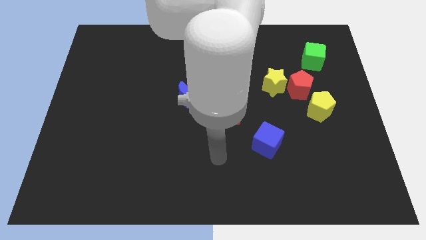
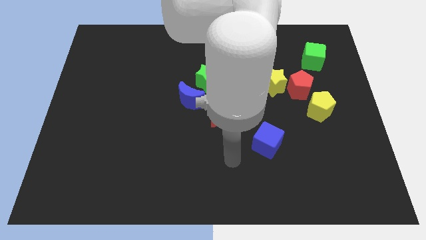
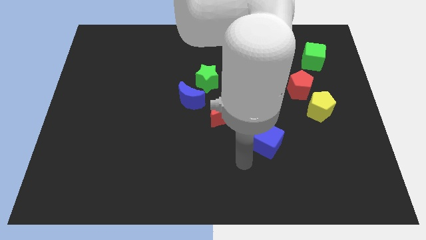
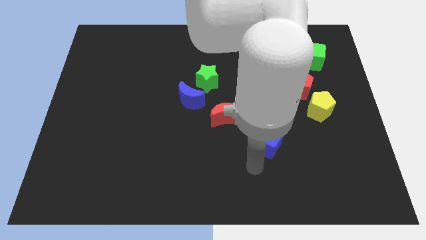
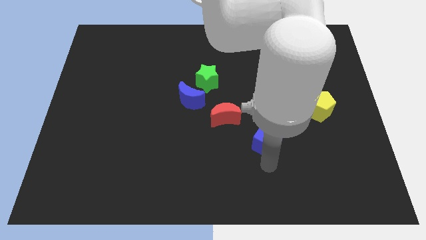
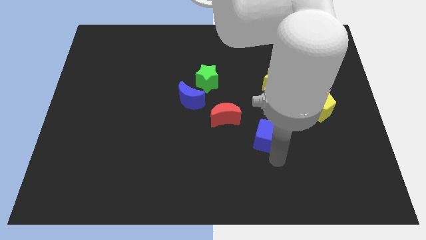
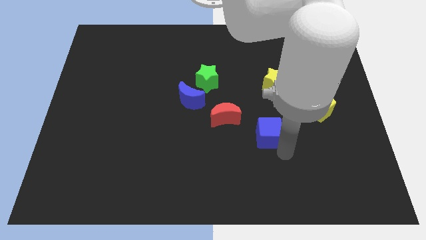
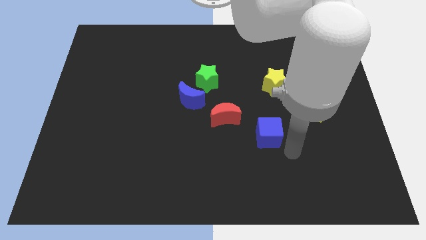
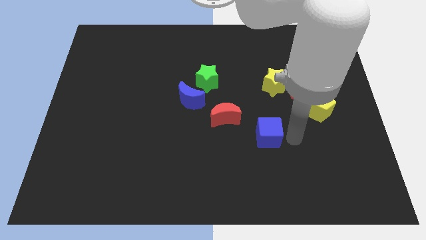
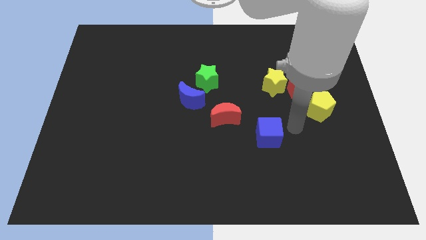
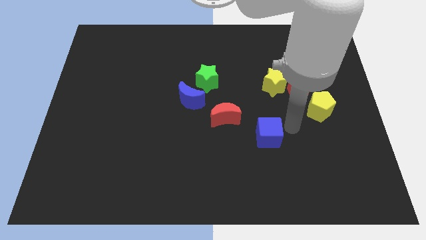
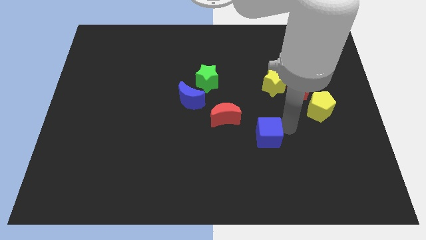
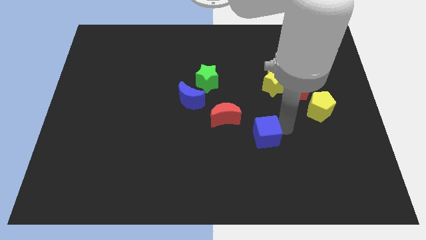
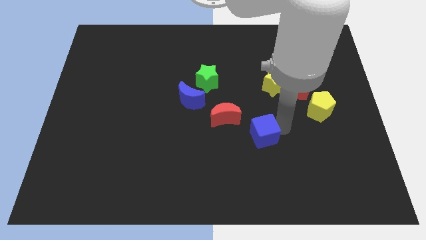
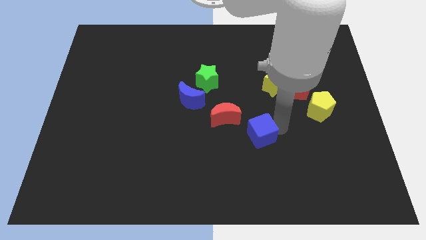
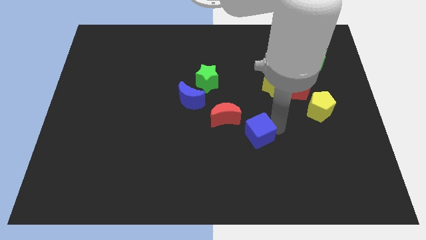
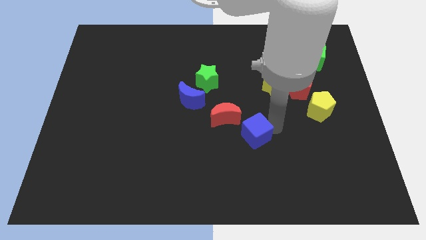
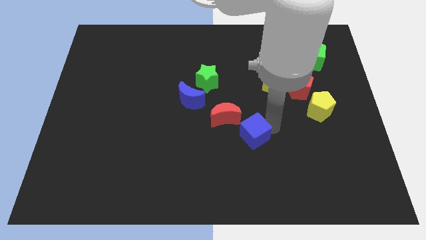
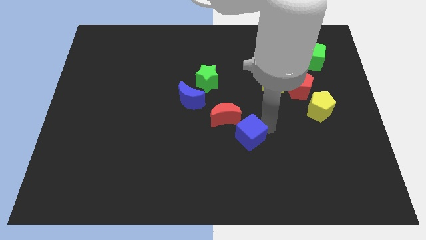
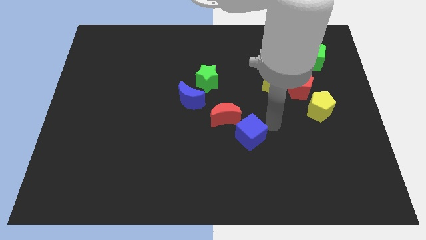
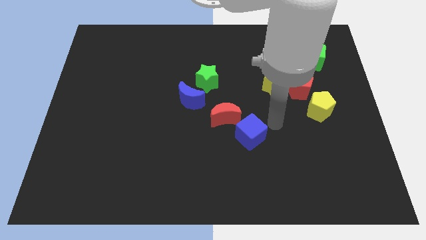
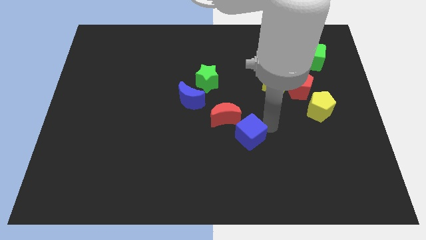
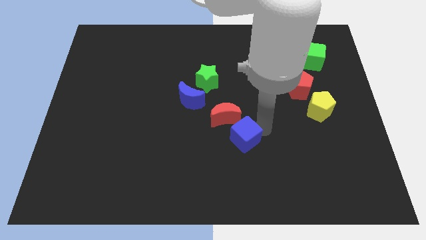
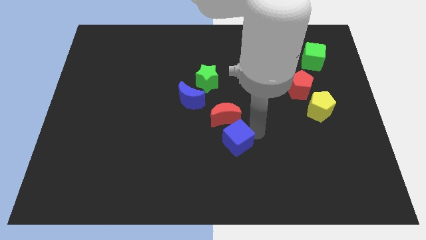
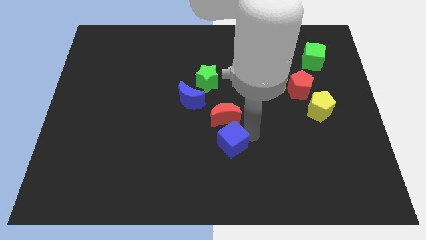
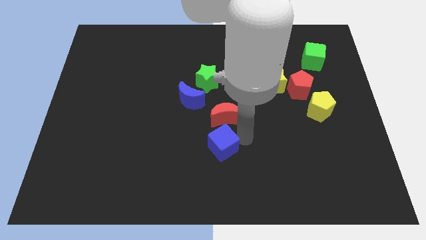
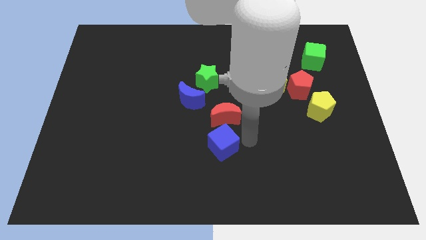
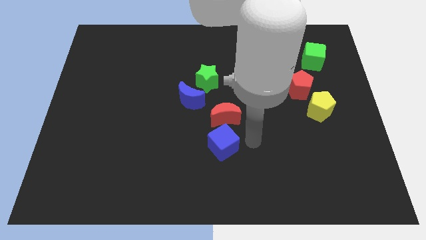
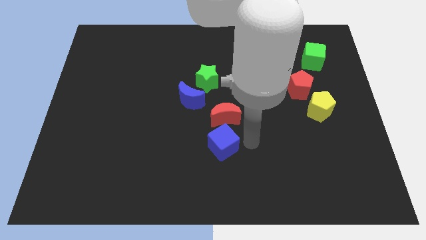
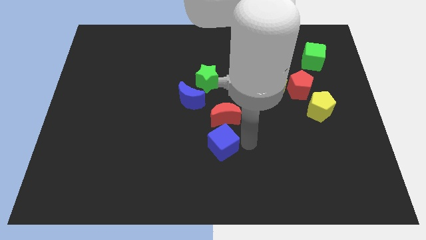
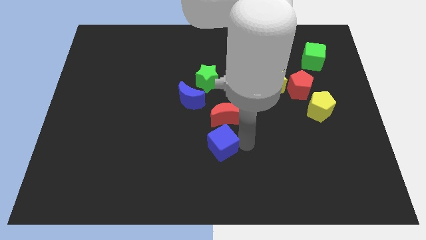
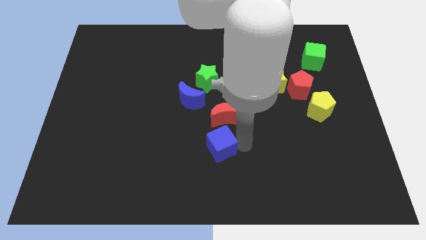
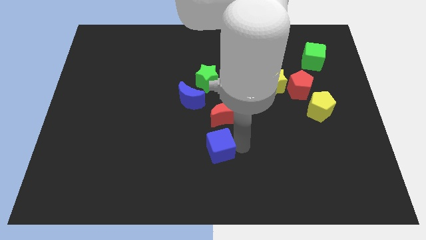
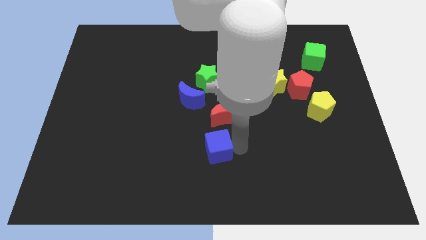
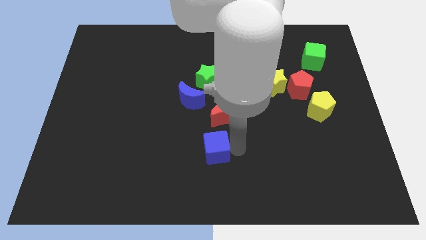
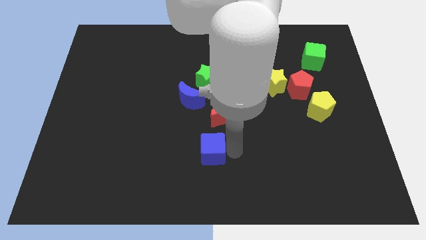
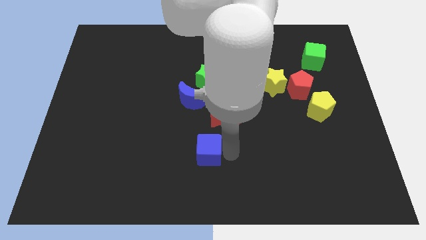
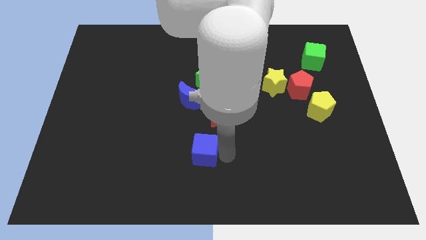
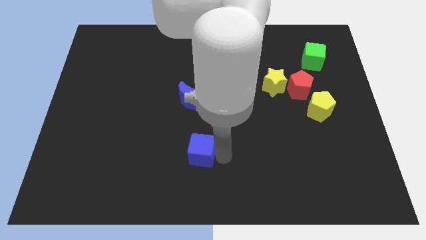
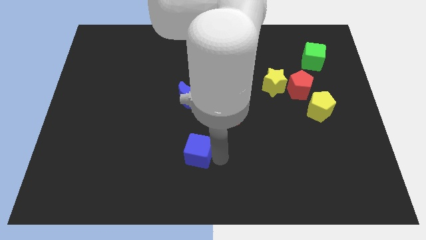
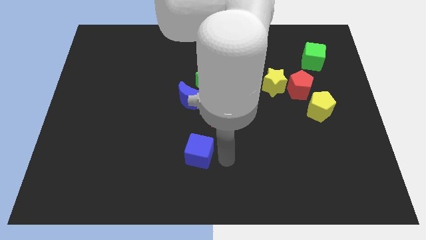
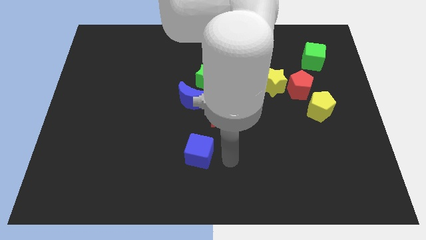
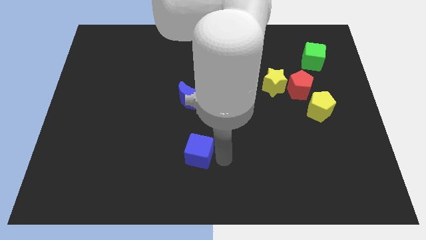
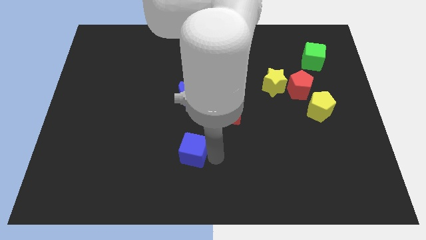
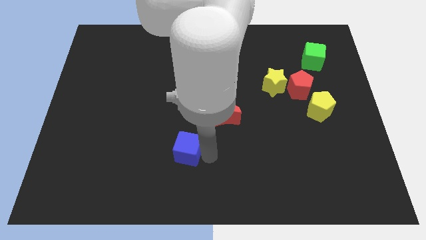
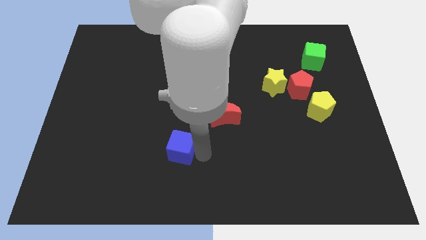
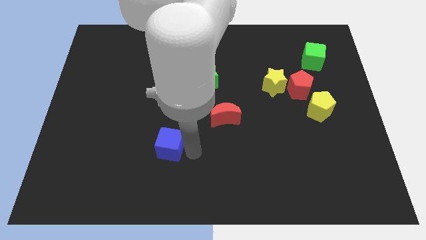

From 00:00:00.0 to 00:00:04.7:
move the blue cube to the left

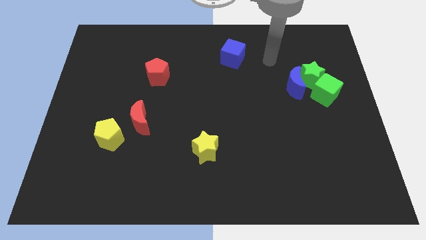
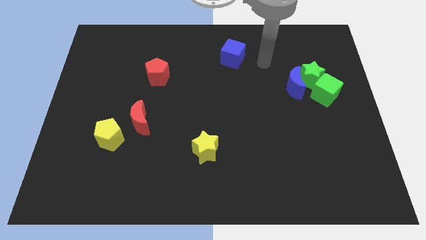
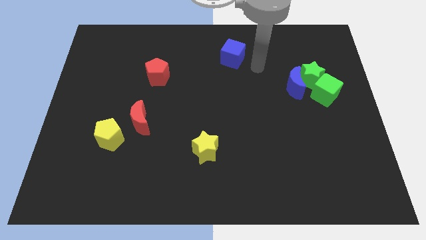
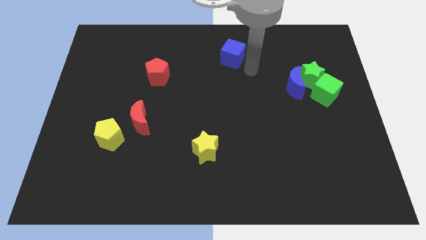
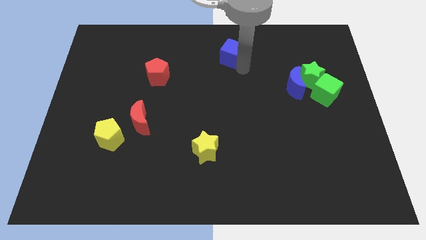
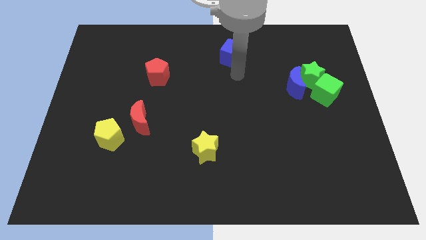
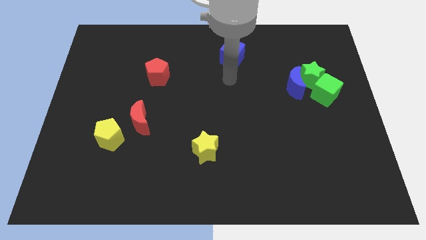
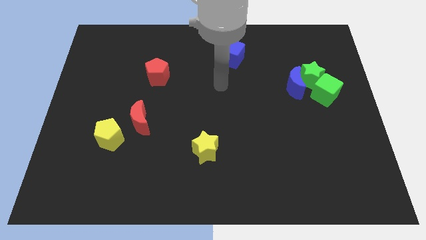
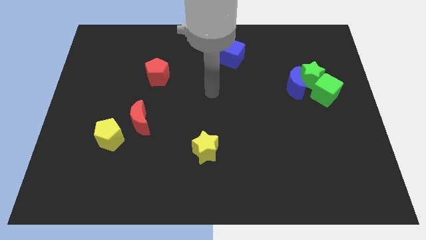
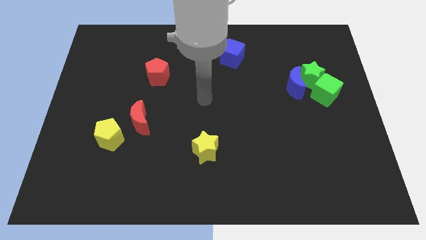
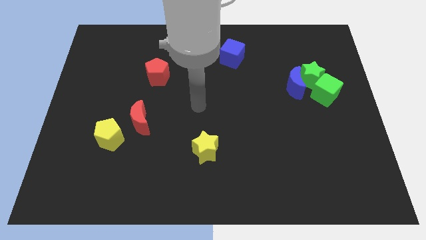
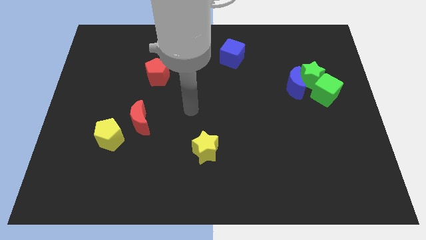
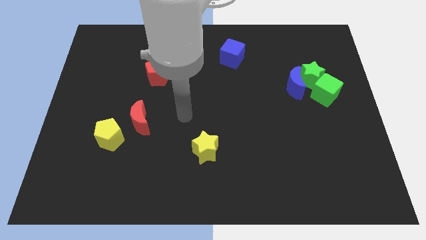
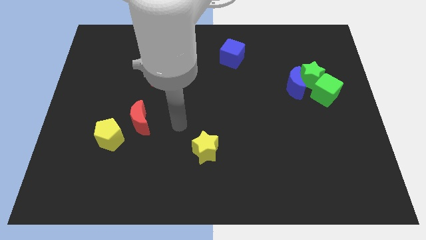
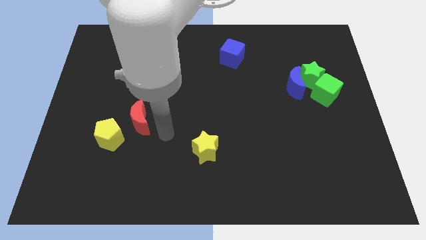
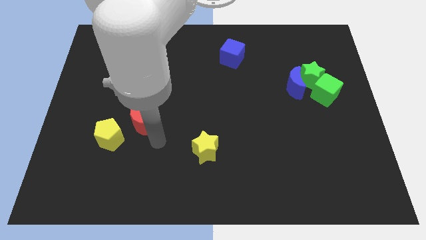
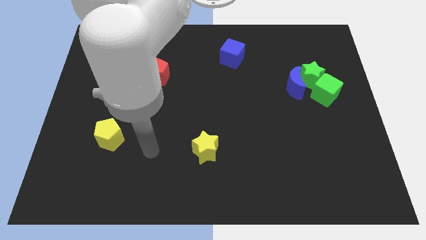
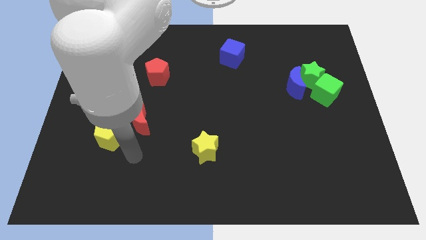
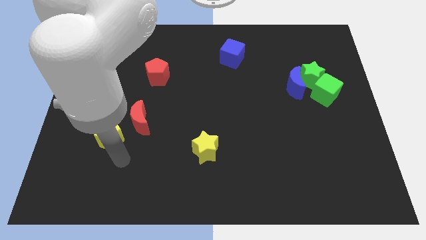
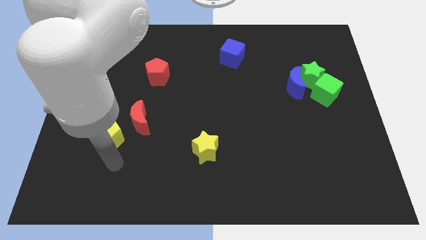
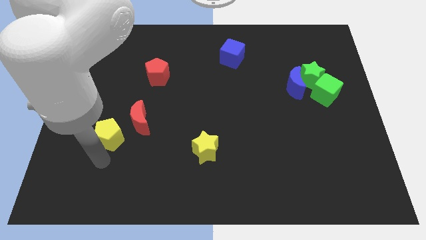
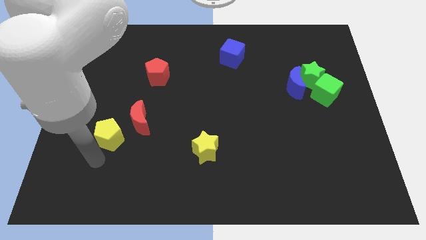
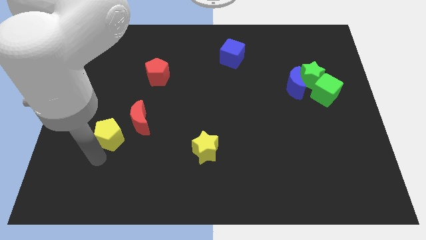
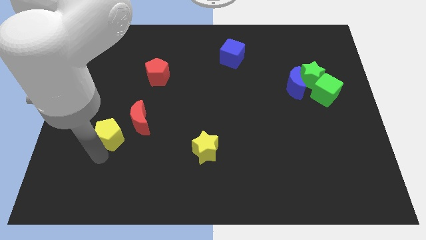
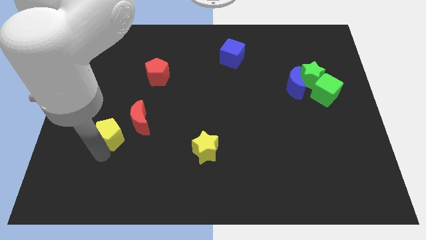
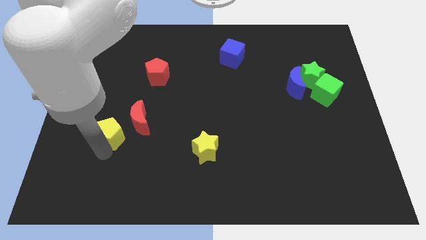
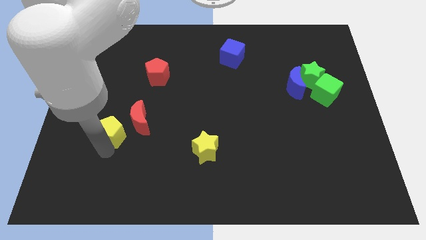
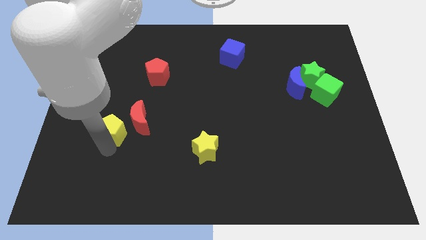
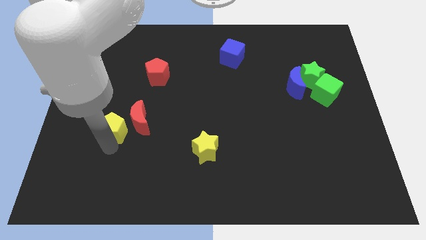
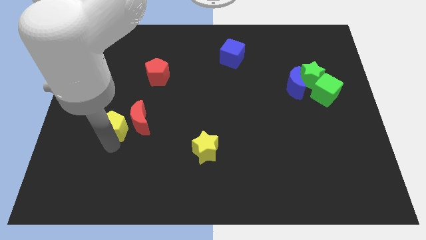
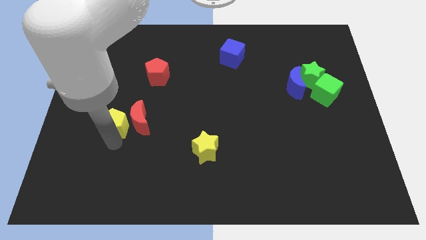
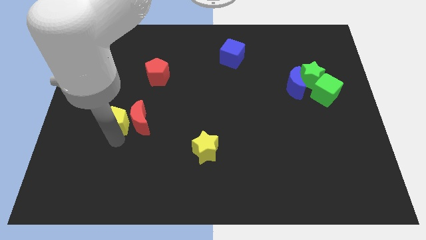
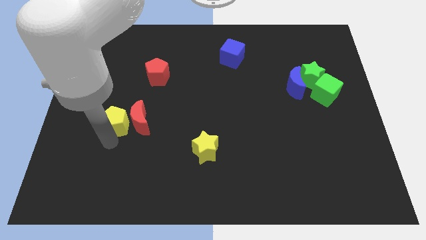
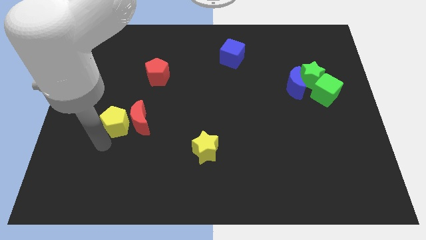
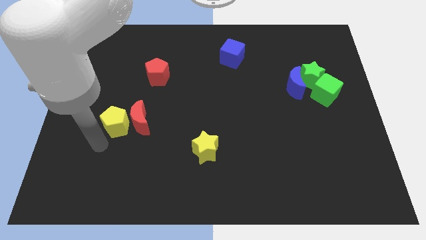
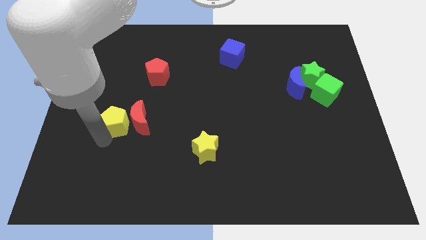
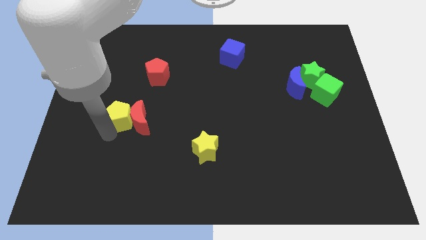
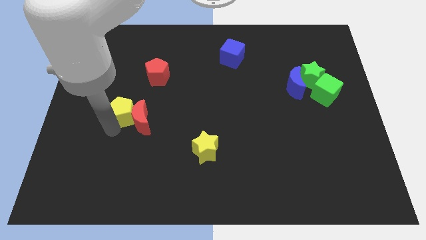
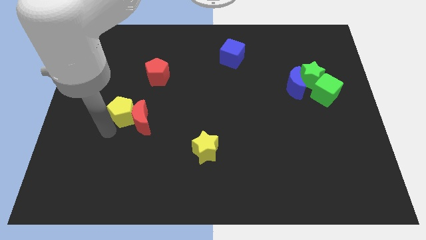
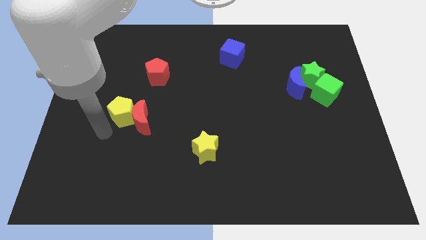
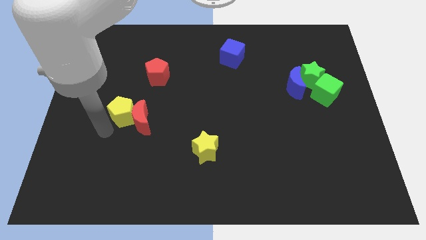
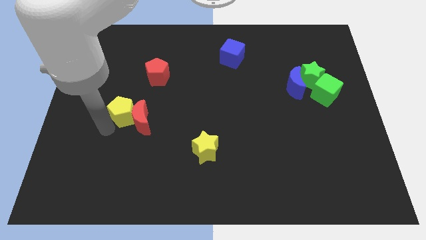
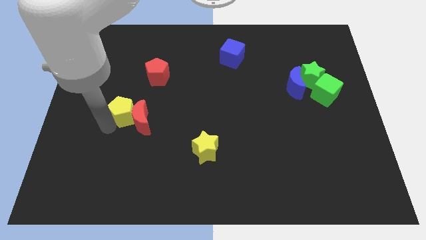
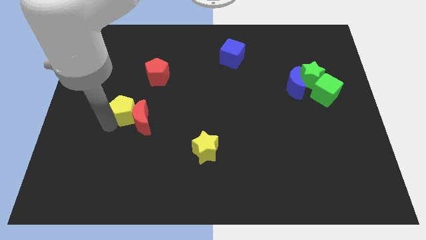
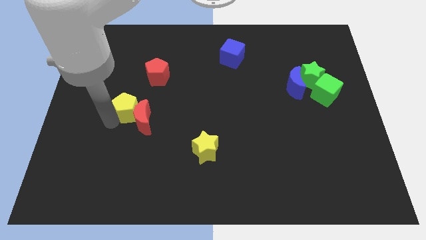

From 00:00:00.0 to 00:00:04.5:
slightly push the yellow pentagon upwards and right
